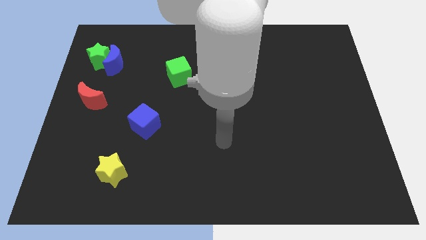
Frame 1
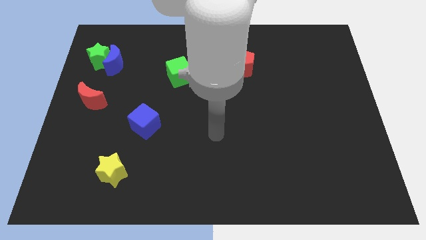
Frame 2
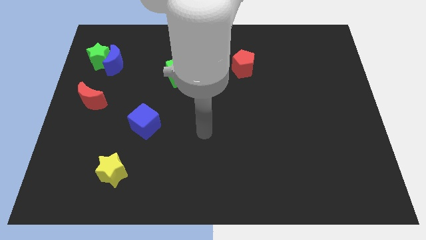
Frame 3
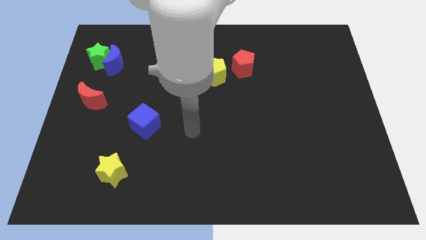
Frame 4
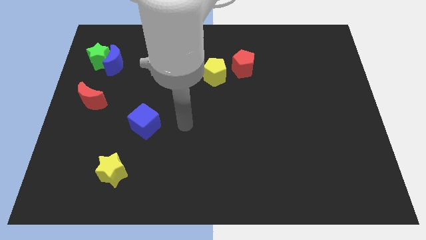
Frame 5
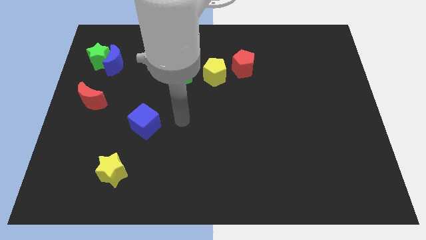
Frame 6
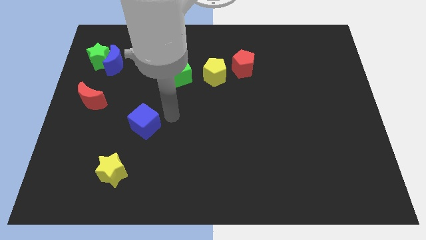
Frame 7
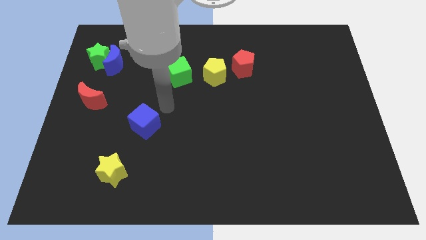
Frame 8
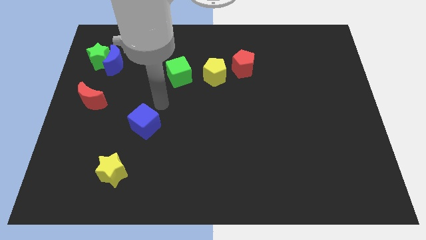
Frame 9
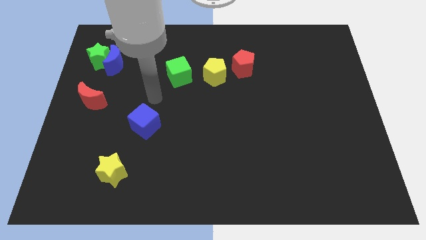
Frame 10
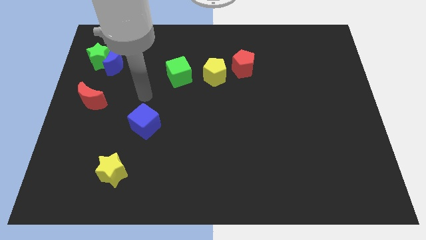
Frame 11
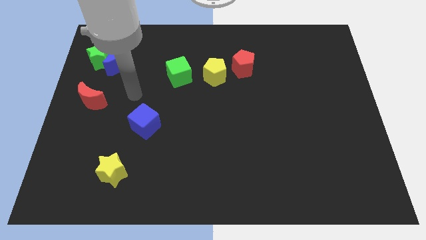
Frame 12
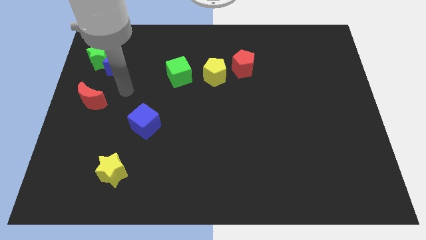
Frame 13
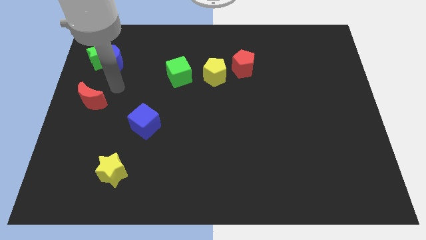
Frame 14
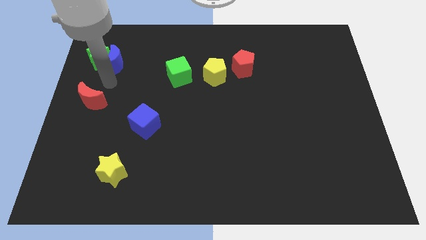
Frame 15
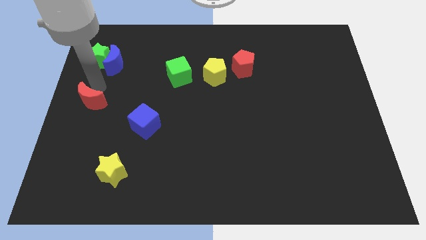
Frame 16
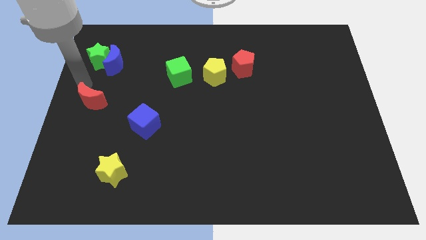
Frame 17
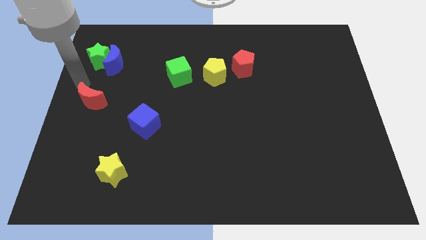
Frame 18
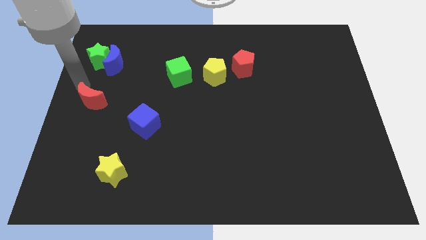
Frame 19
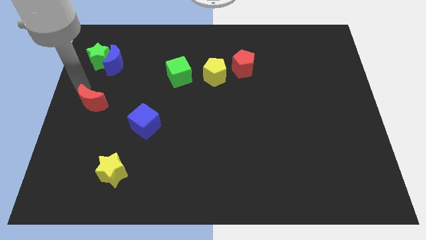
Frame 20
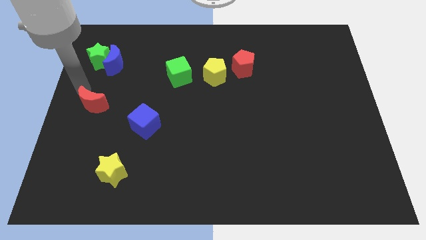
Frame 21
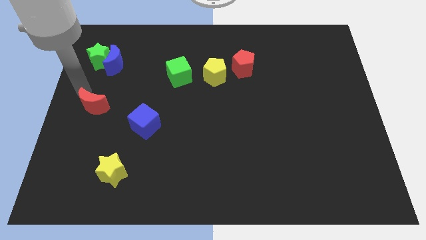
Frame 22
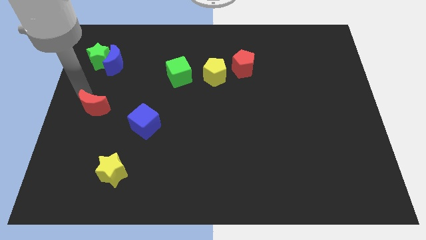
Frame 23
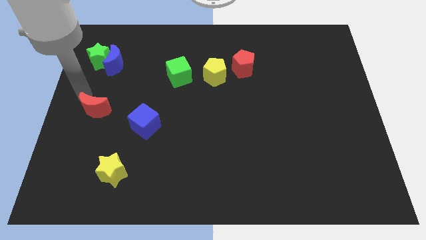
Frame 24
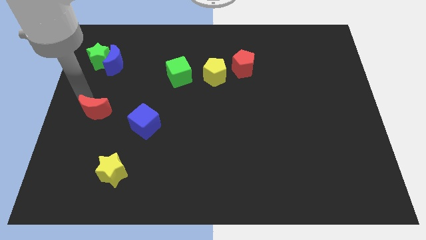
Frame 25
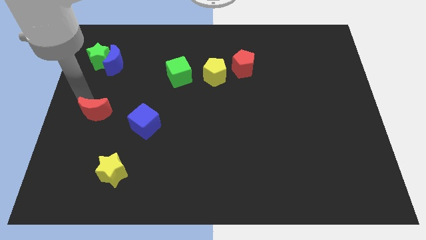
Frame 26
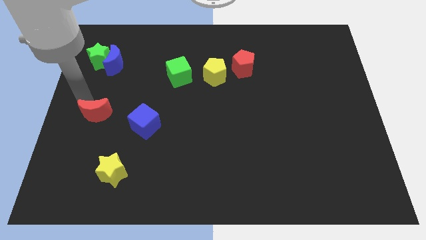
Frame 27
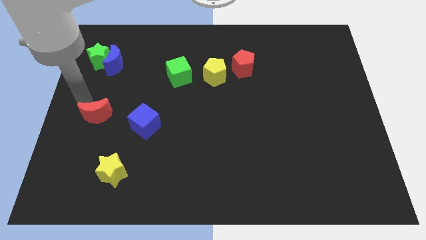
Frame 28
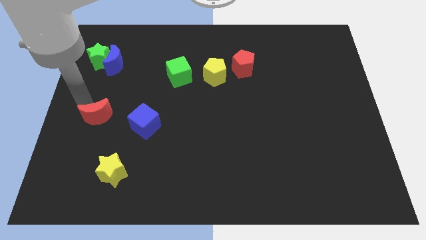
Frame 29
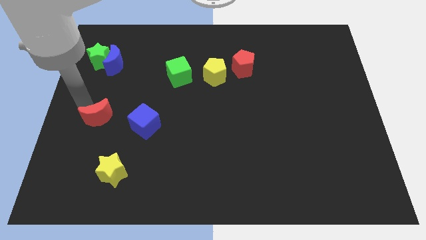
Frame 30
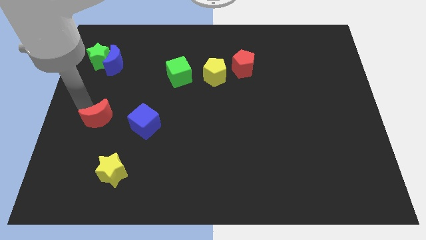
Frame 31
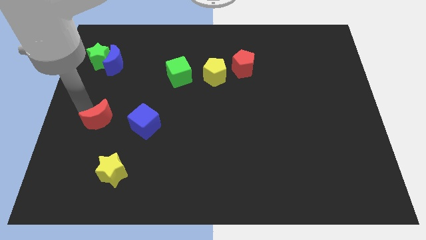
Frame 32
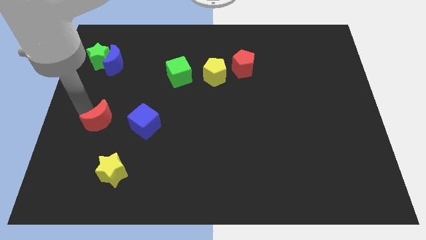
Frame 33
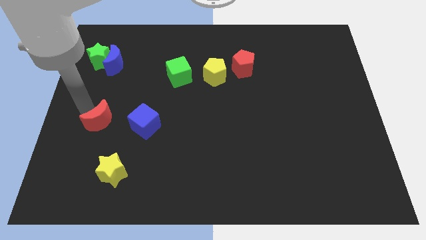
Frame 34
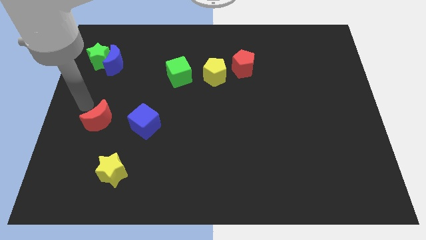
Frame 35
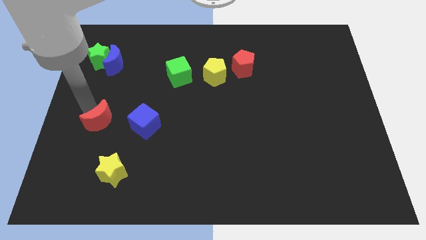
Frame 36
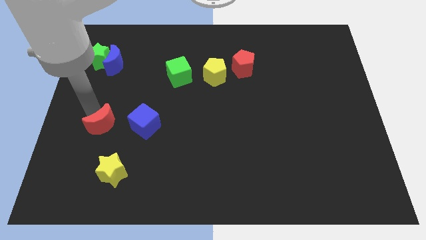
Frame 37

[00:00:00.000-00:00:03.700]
push the red moon a little bit down and right diagonally

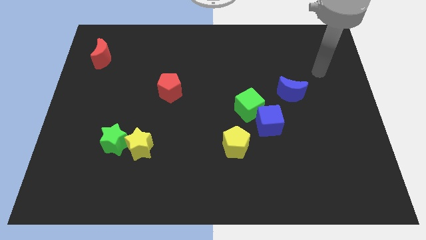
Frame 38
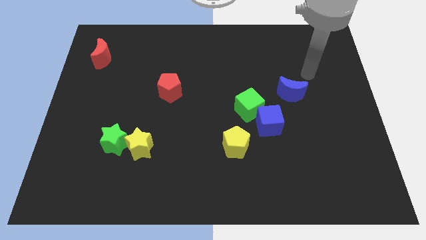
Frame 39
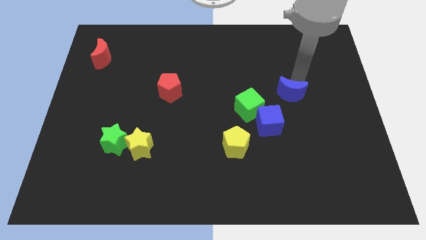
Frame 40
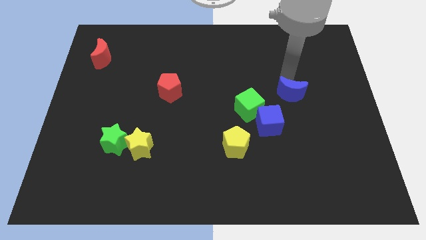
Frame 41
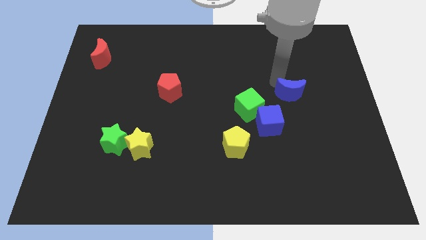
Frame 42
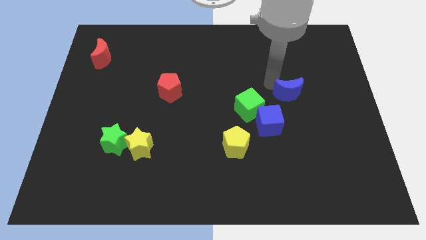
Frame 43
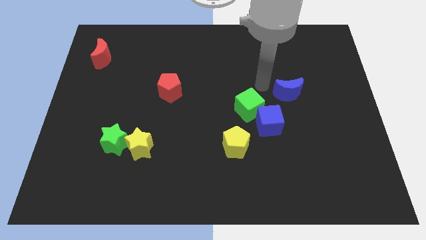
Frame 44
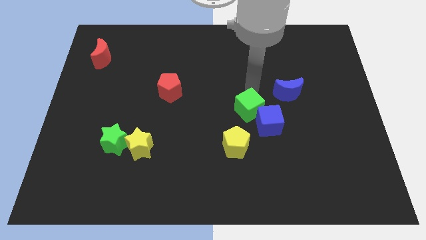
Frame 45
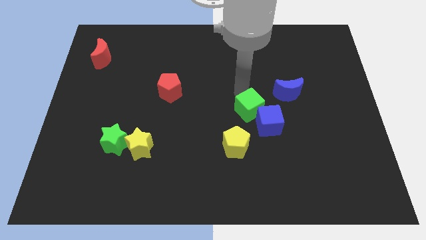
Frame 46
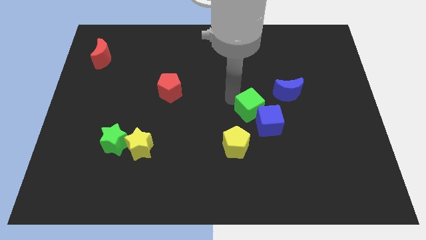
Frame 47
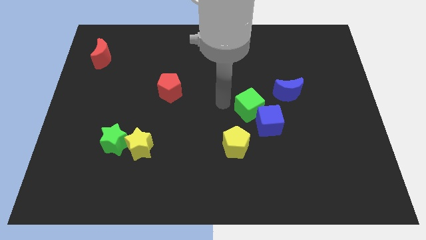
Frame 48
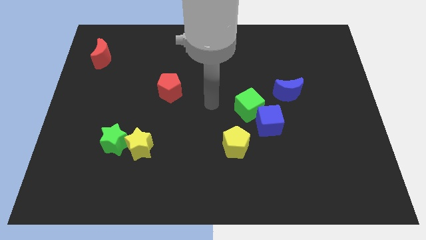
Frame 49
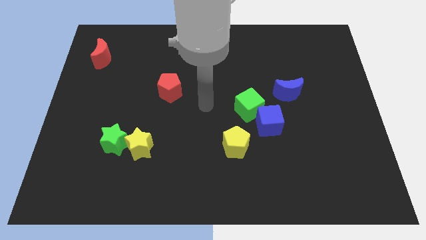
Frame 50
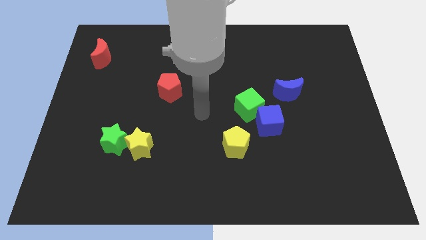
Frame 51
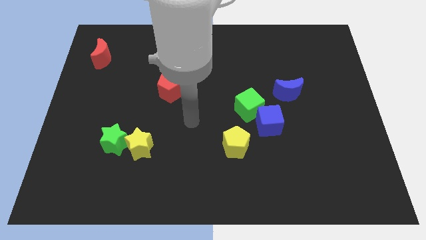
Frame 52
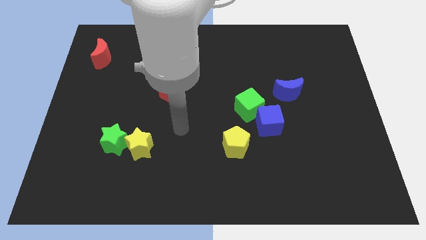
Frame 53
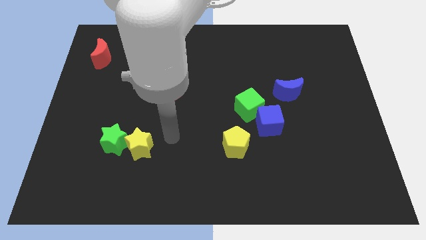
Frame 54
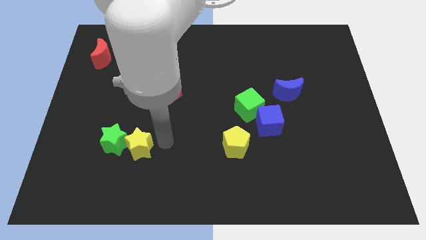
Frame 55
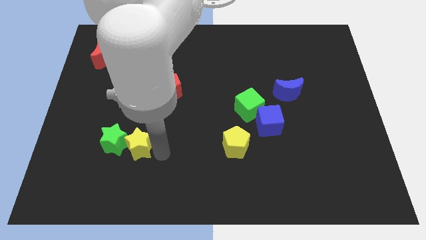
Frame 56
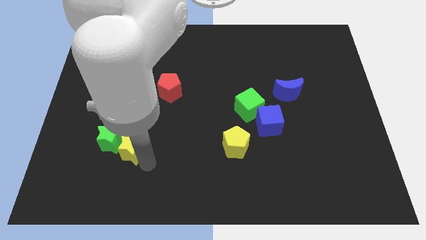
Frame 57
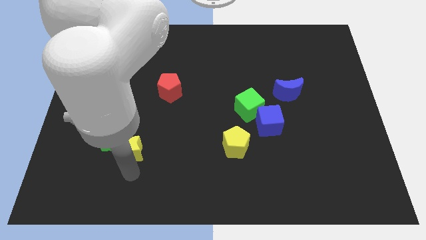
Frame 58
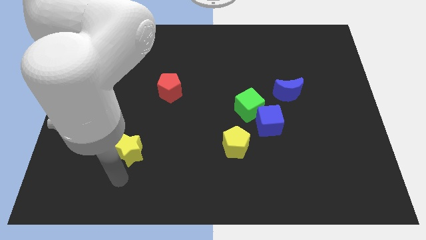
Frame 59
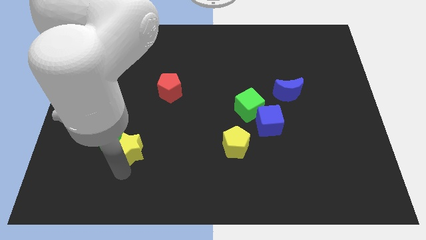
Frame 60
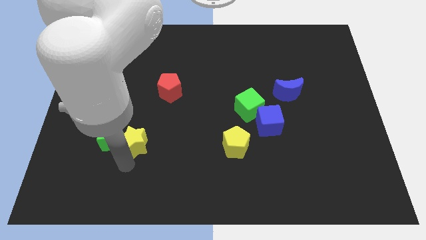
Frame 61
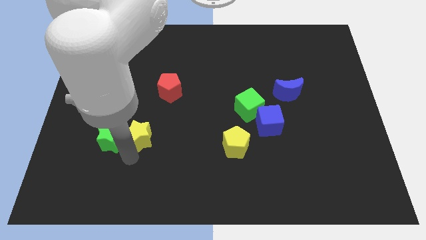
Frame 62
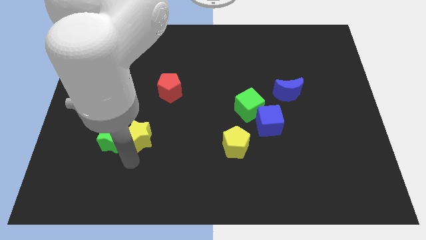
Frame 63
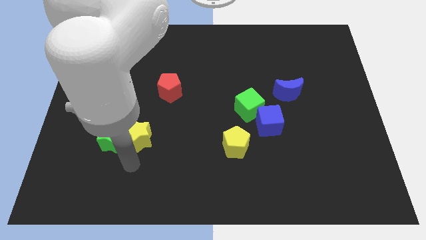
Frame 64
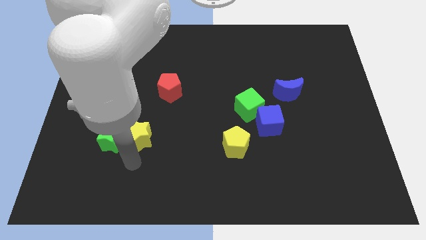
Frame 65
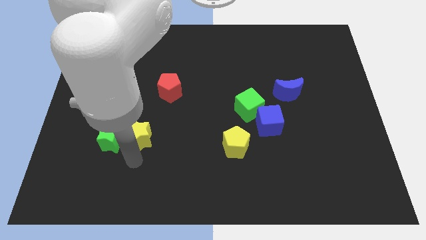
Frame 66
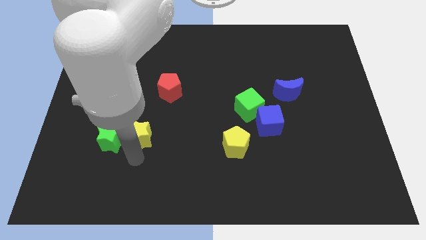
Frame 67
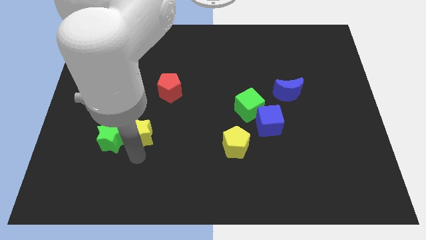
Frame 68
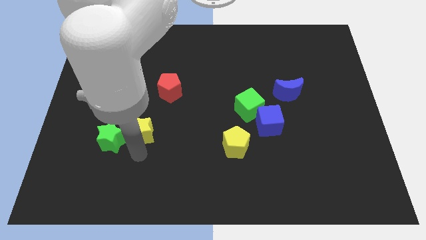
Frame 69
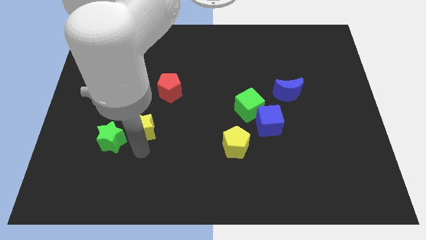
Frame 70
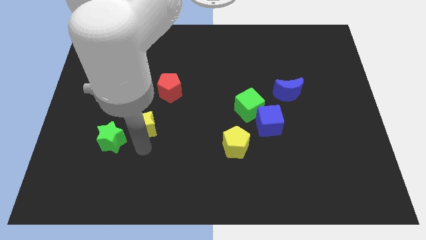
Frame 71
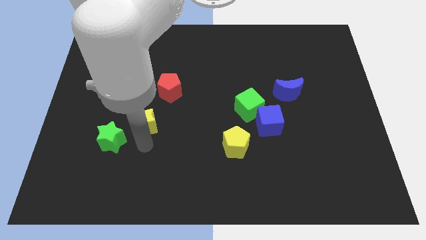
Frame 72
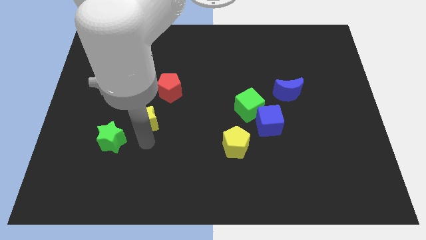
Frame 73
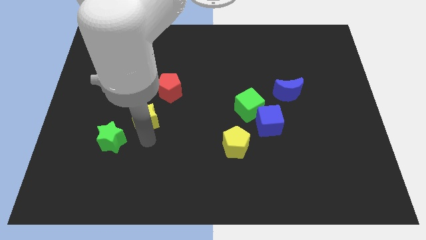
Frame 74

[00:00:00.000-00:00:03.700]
slightly push the yellow star upwards

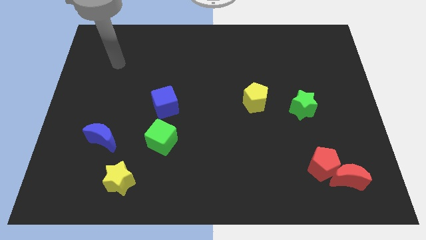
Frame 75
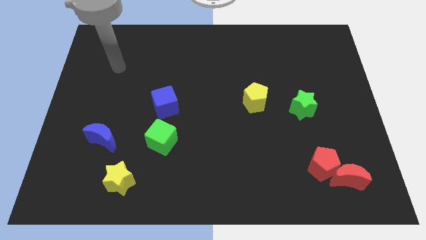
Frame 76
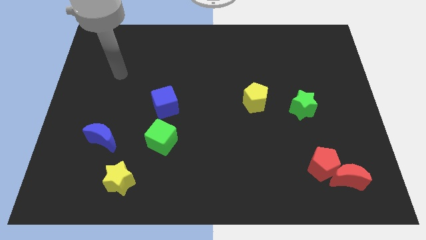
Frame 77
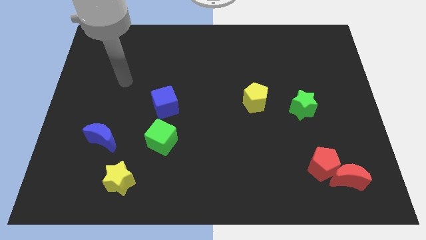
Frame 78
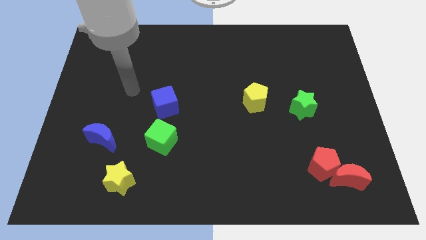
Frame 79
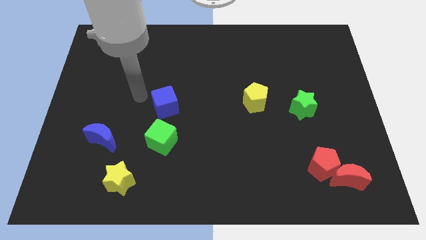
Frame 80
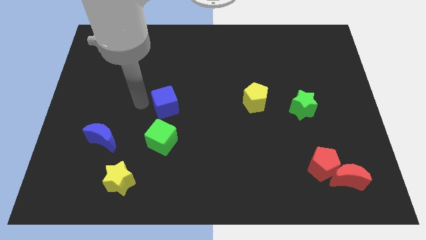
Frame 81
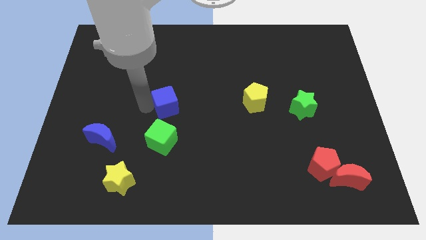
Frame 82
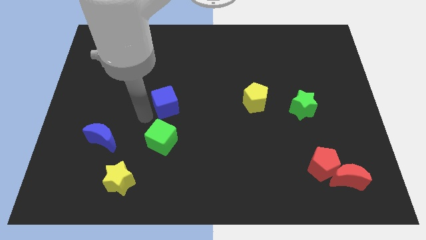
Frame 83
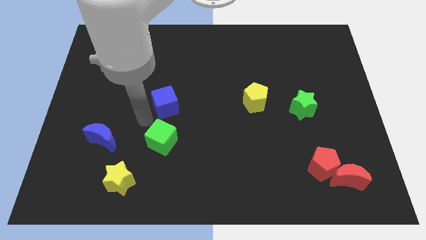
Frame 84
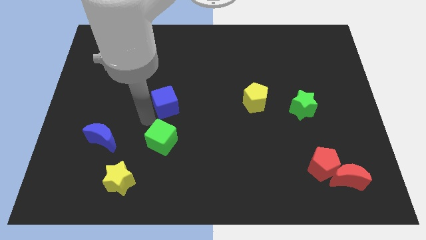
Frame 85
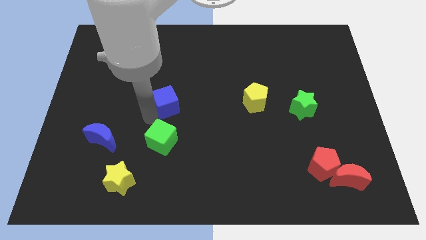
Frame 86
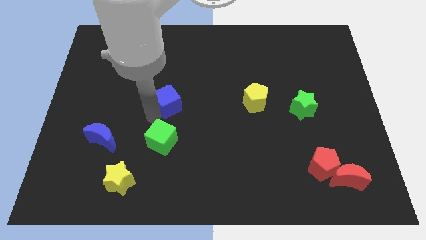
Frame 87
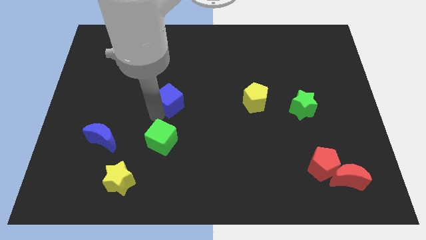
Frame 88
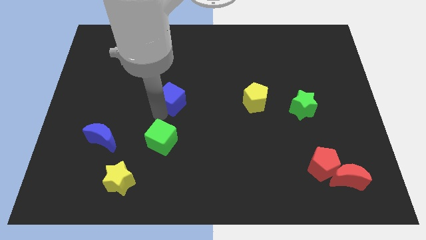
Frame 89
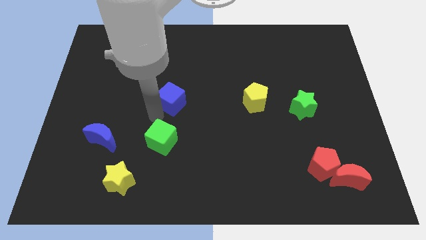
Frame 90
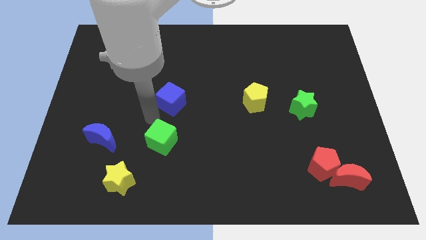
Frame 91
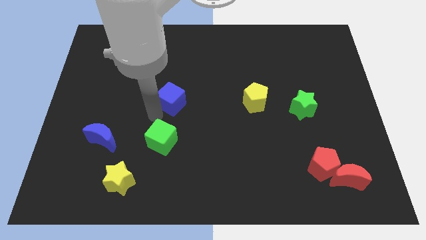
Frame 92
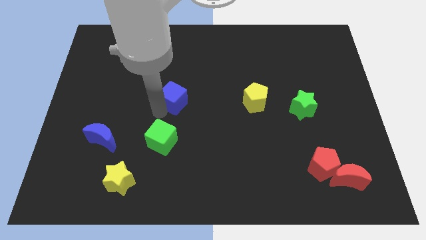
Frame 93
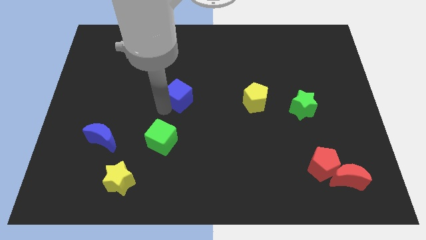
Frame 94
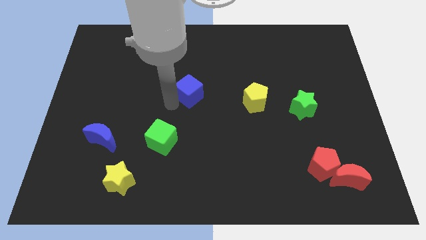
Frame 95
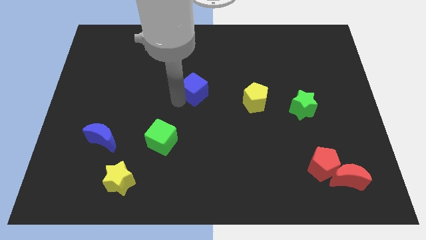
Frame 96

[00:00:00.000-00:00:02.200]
push the blue cube upwards and right slightly
